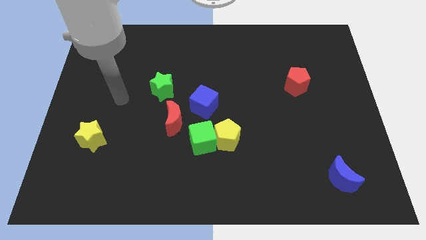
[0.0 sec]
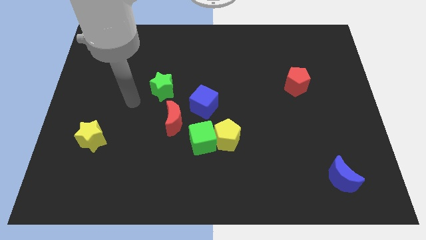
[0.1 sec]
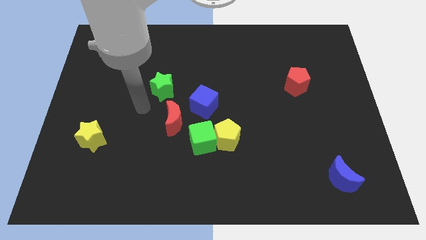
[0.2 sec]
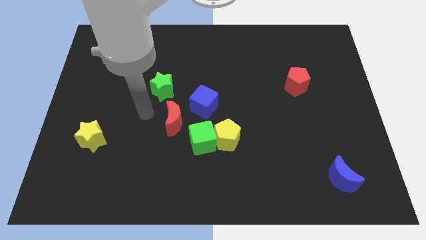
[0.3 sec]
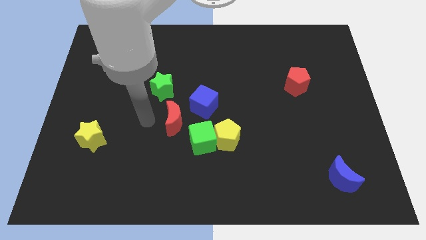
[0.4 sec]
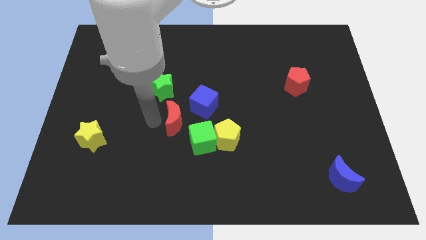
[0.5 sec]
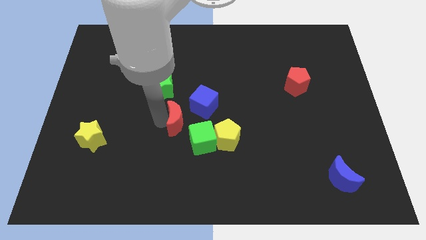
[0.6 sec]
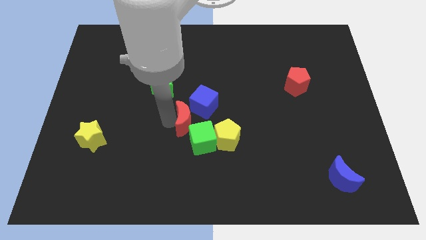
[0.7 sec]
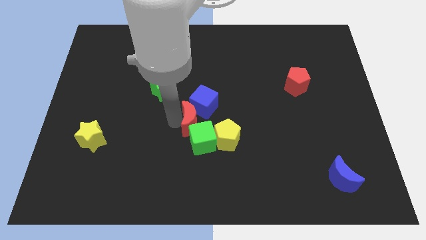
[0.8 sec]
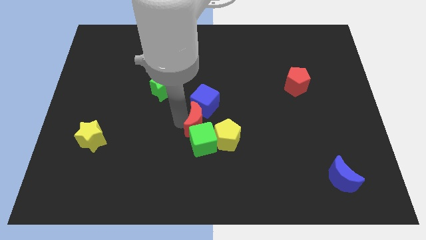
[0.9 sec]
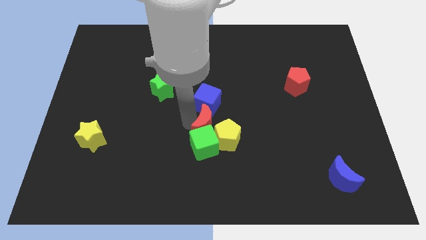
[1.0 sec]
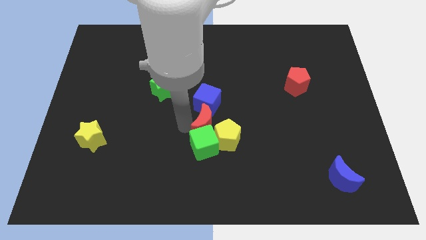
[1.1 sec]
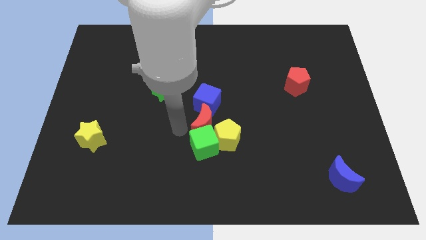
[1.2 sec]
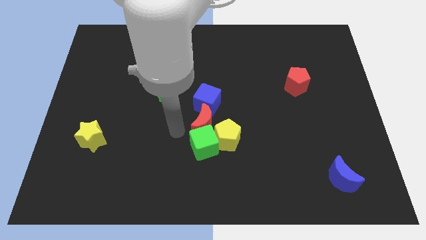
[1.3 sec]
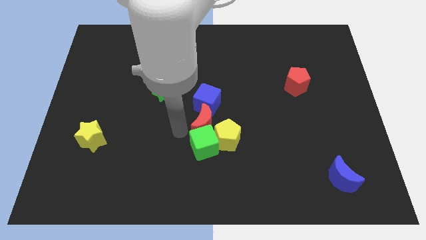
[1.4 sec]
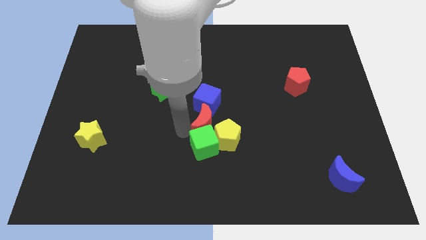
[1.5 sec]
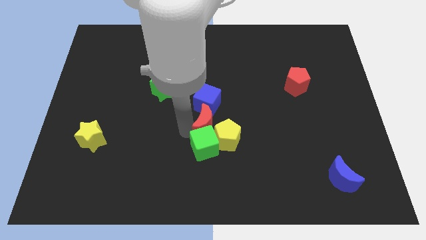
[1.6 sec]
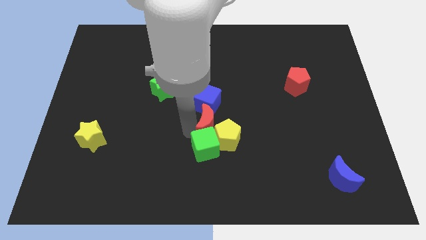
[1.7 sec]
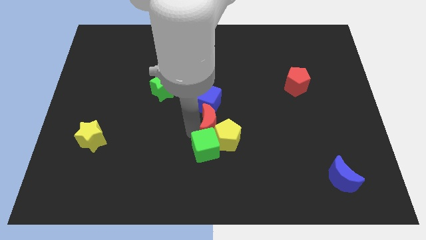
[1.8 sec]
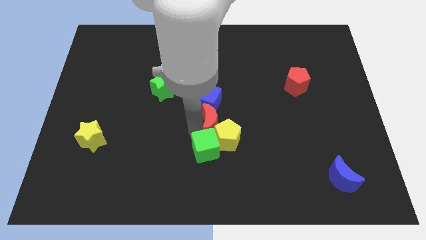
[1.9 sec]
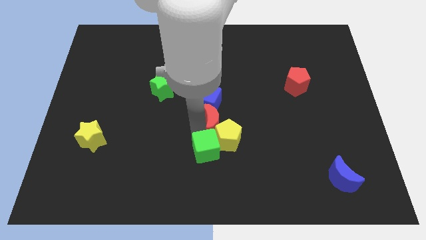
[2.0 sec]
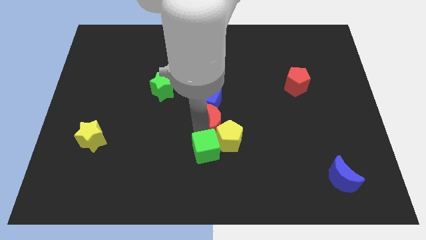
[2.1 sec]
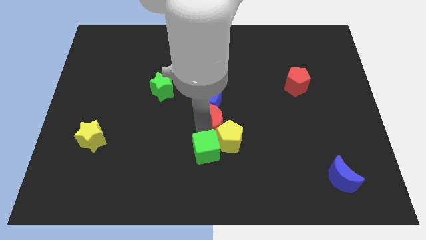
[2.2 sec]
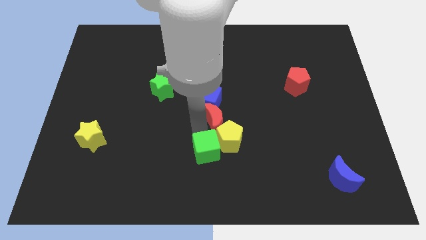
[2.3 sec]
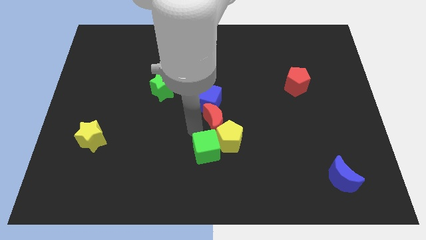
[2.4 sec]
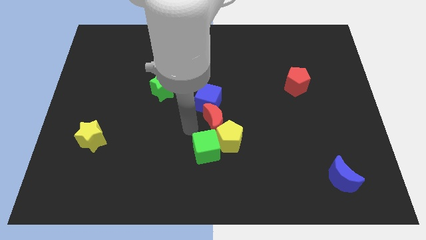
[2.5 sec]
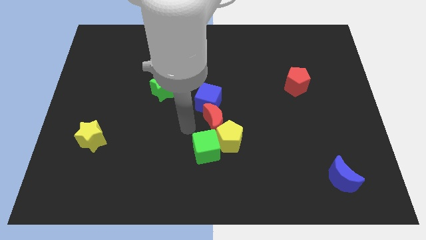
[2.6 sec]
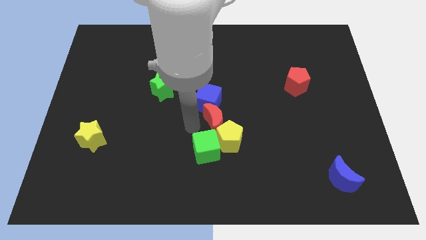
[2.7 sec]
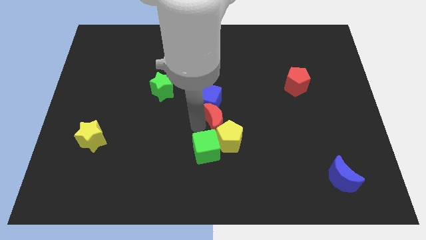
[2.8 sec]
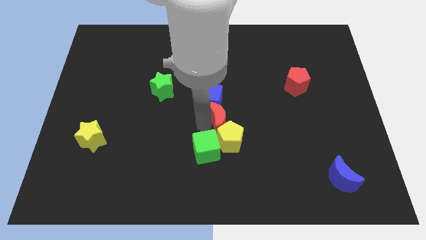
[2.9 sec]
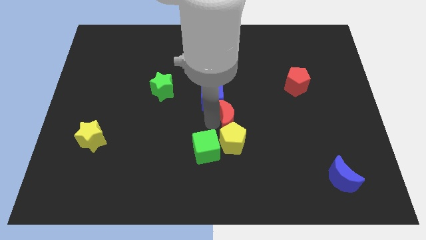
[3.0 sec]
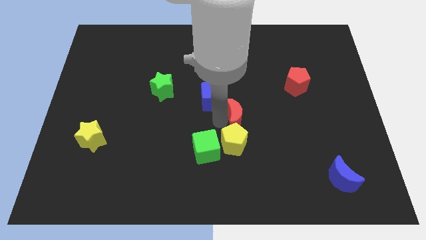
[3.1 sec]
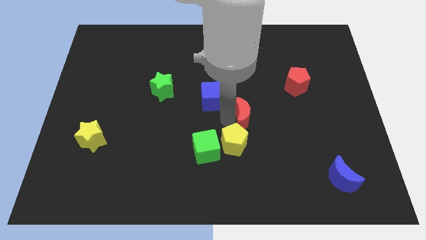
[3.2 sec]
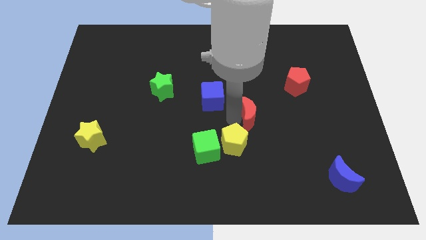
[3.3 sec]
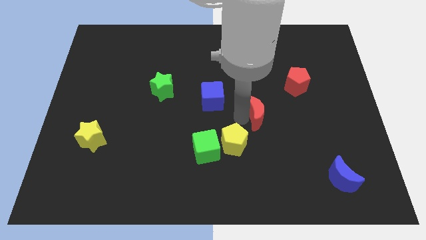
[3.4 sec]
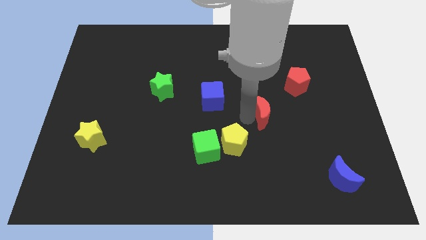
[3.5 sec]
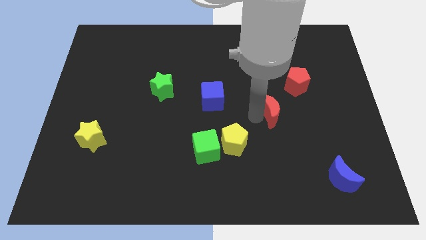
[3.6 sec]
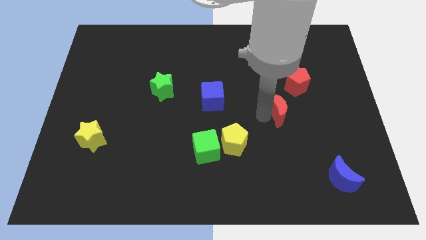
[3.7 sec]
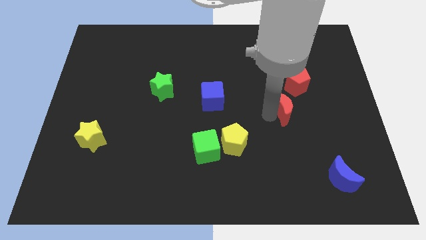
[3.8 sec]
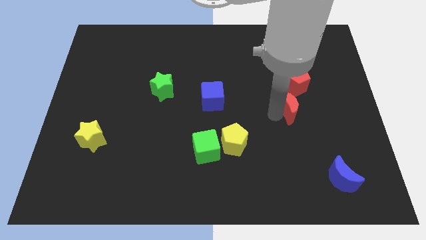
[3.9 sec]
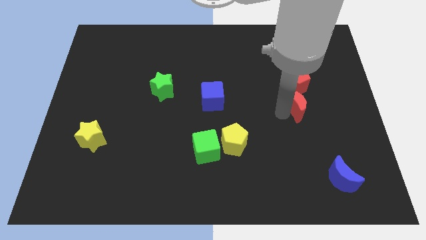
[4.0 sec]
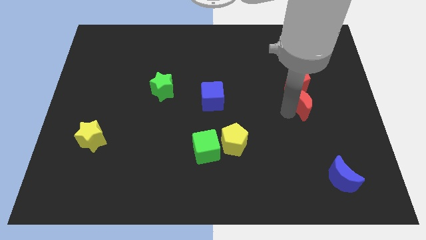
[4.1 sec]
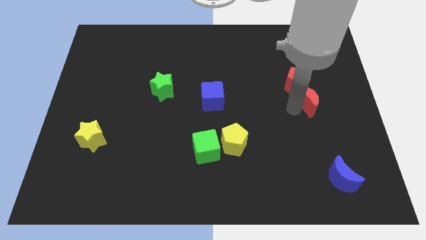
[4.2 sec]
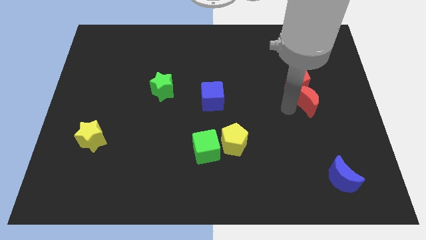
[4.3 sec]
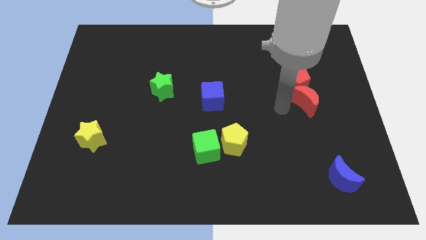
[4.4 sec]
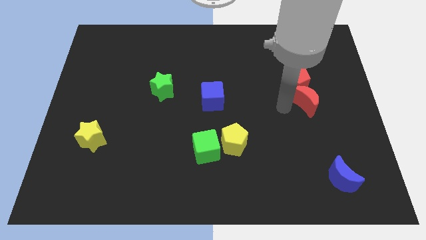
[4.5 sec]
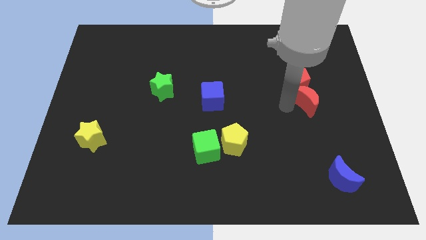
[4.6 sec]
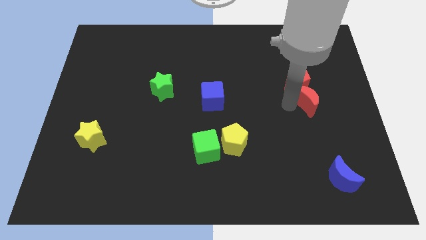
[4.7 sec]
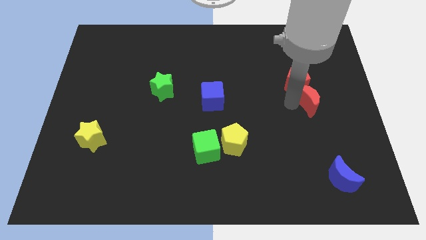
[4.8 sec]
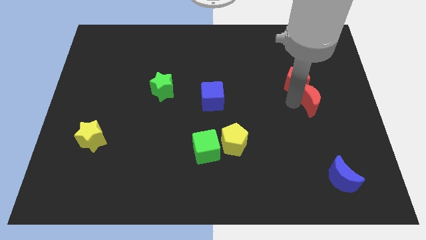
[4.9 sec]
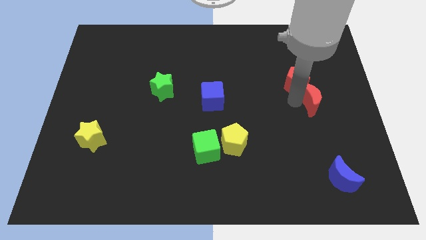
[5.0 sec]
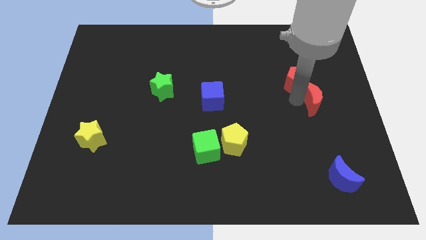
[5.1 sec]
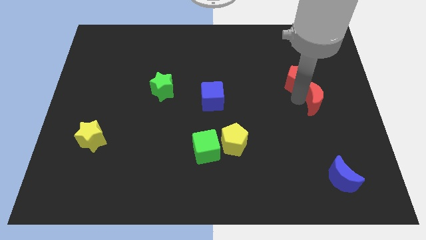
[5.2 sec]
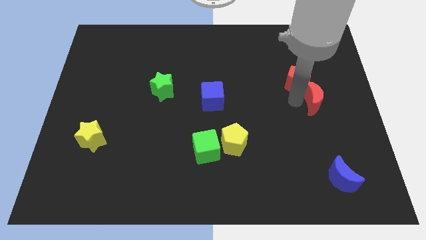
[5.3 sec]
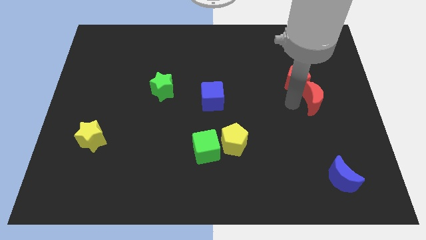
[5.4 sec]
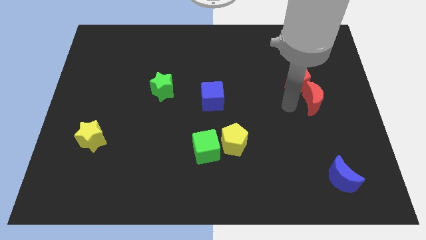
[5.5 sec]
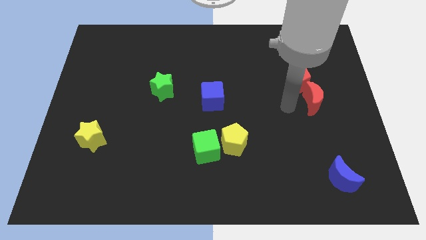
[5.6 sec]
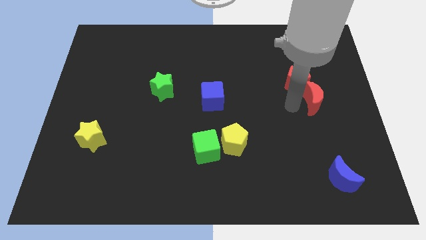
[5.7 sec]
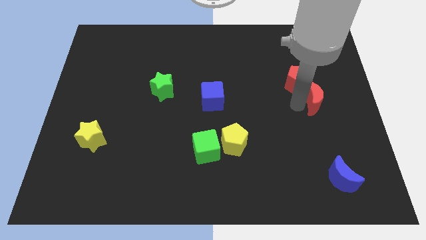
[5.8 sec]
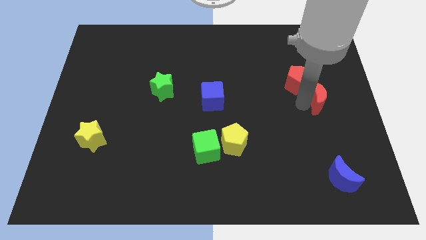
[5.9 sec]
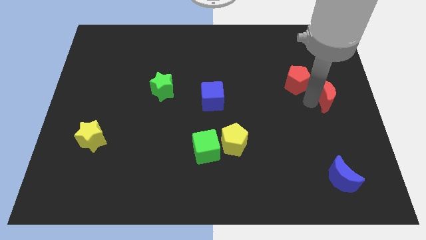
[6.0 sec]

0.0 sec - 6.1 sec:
slide the red moon to the center right
